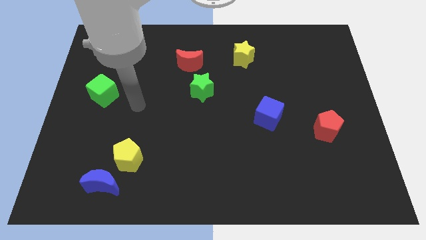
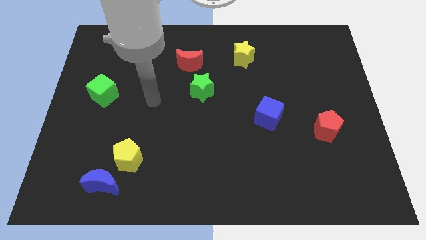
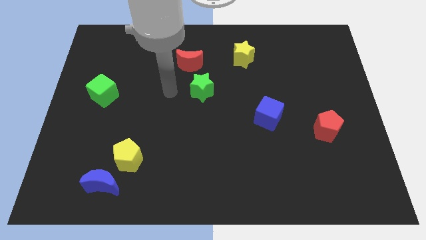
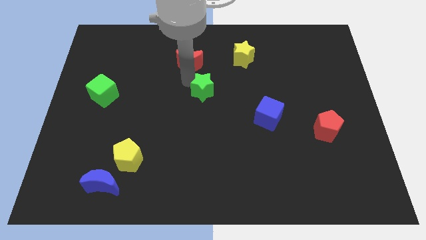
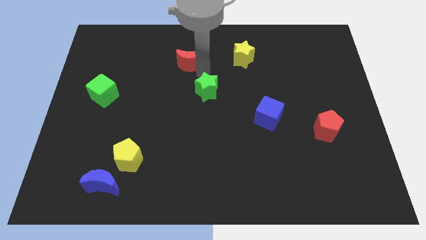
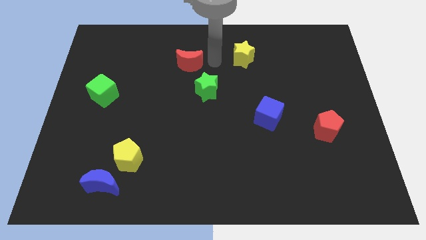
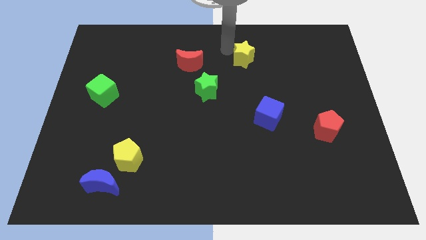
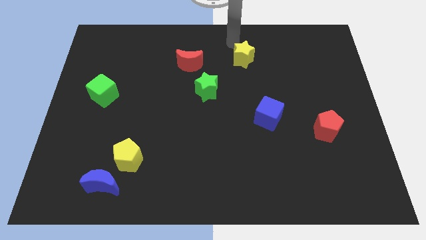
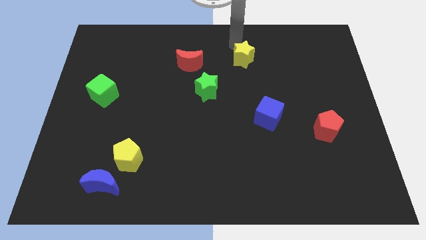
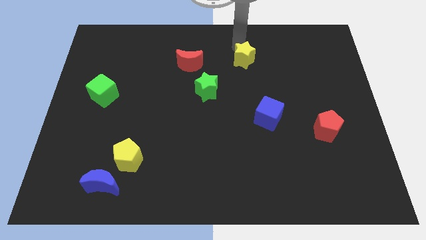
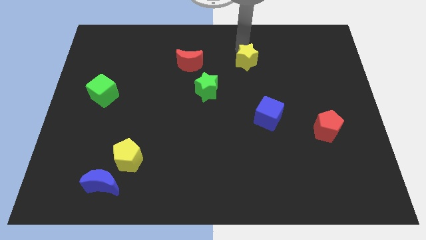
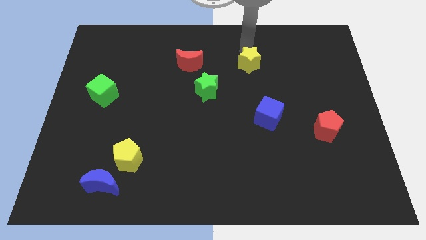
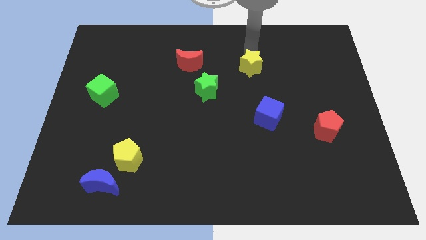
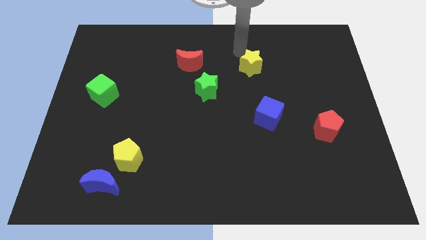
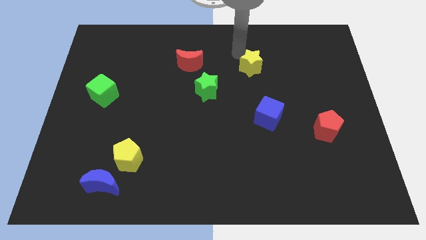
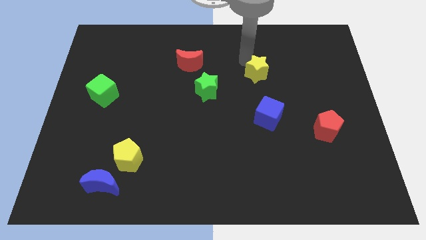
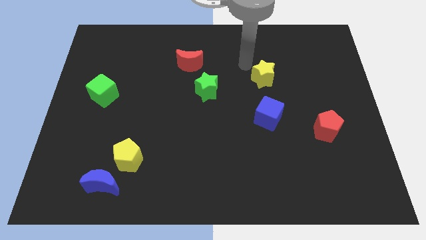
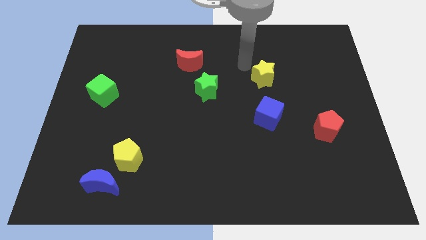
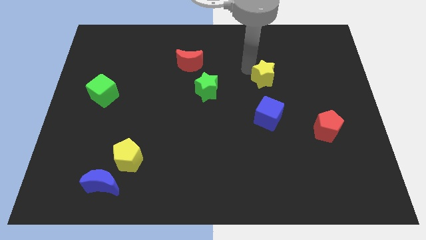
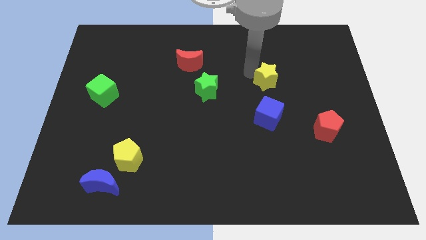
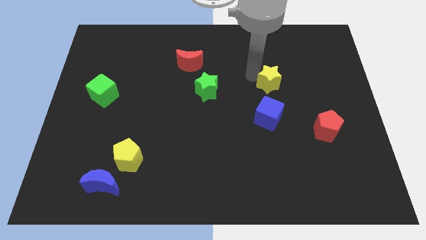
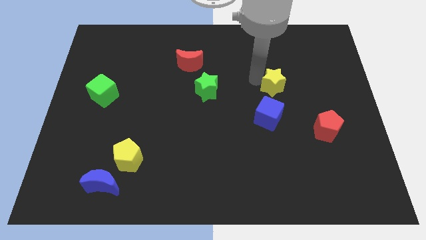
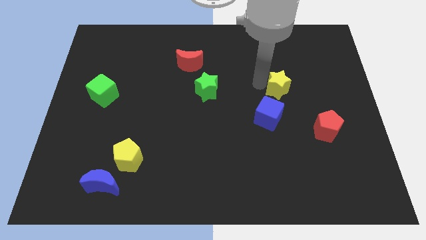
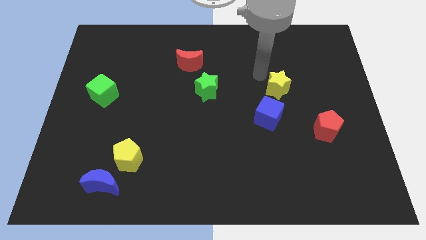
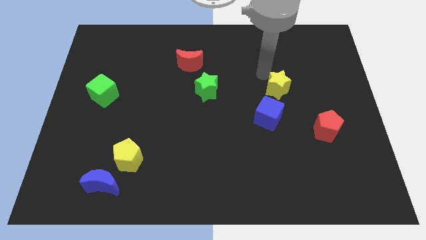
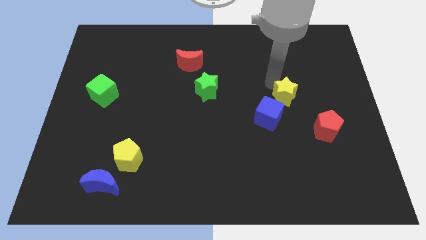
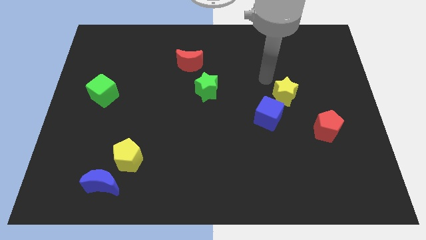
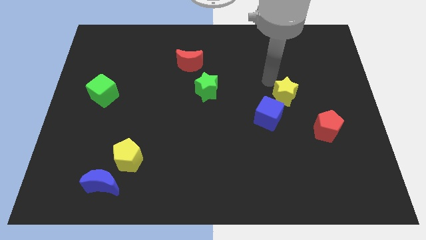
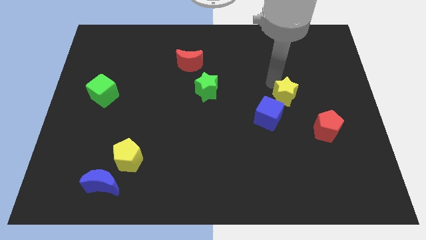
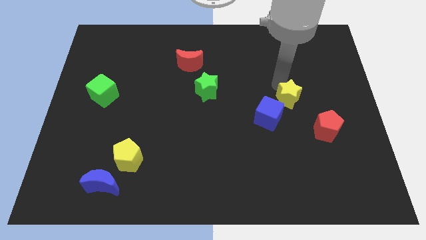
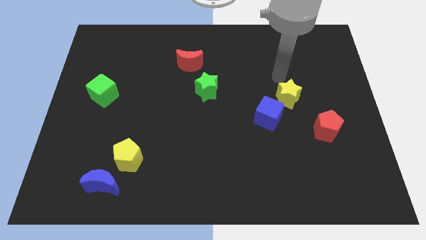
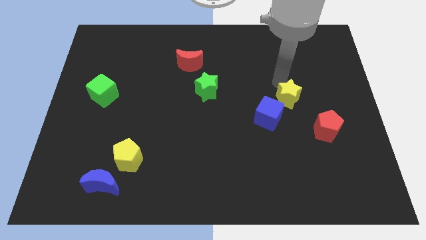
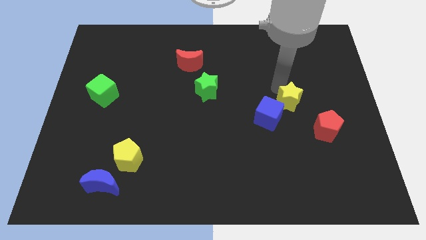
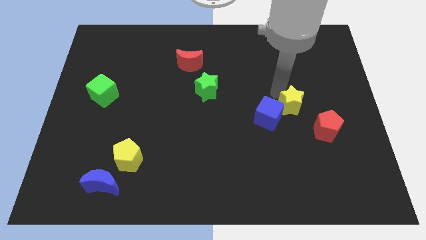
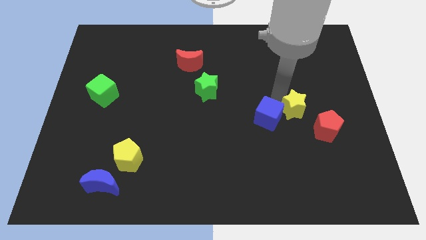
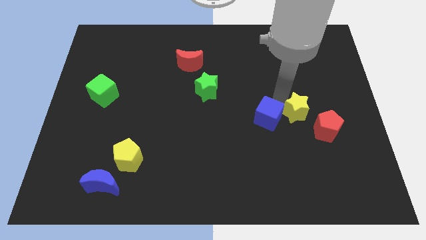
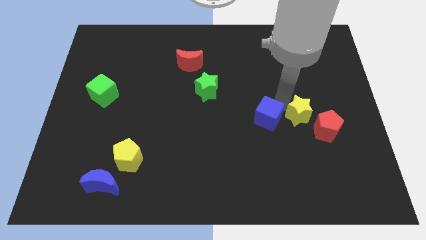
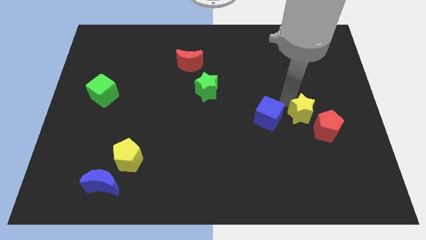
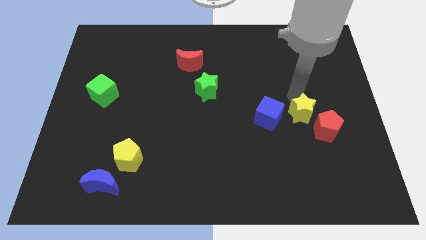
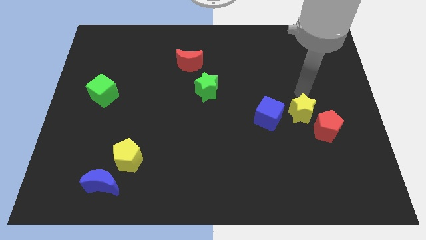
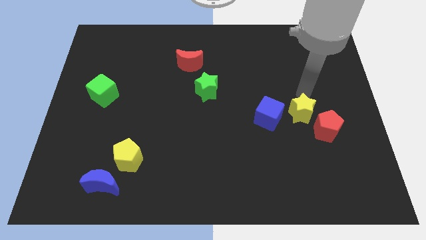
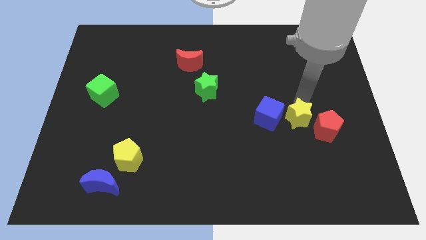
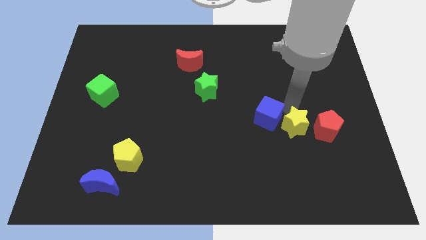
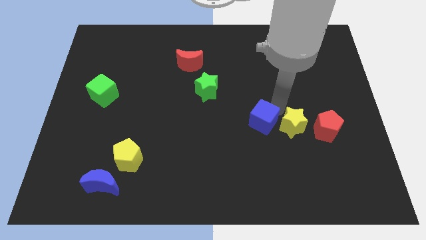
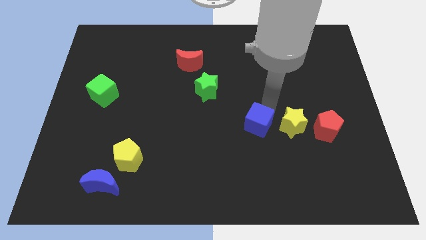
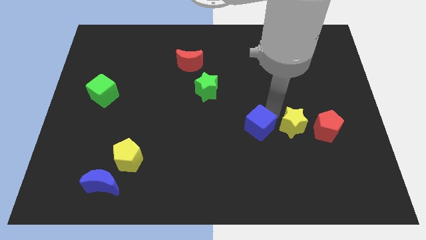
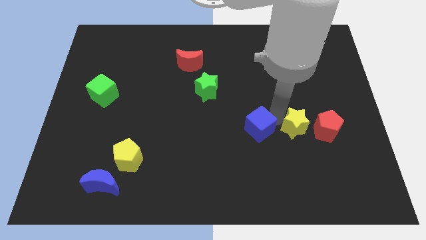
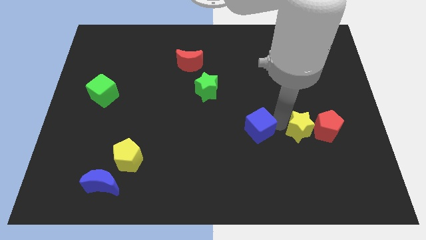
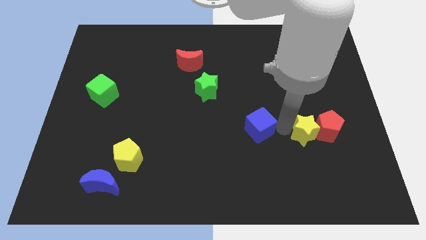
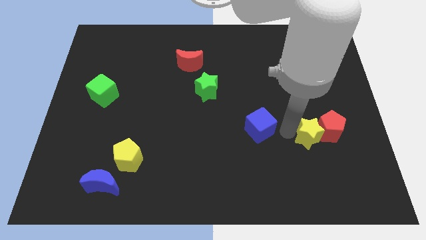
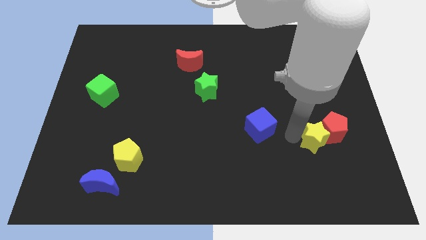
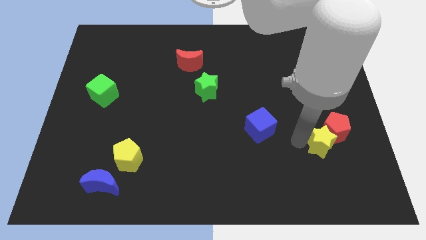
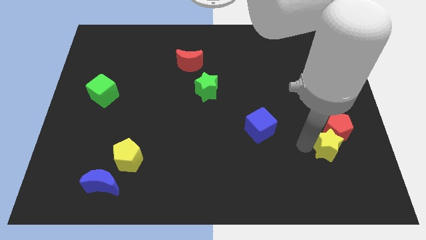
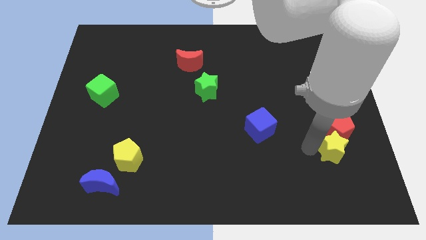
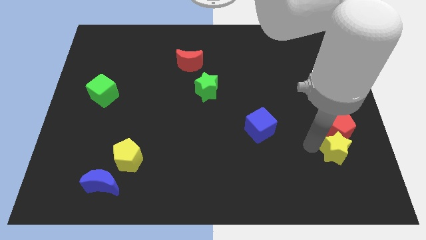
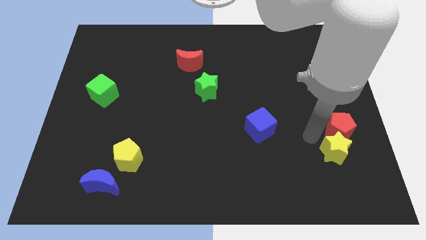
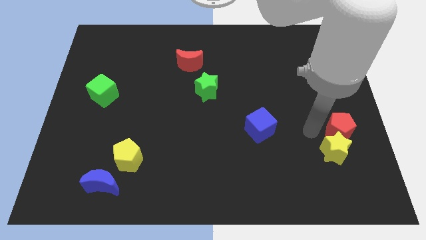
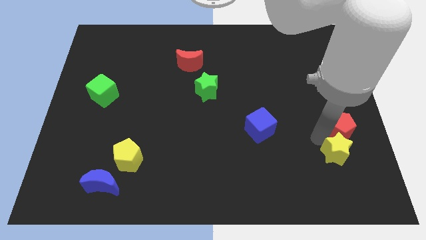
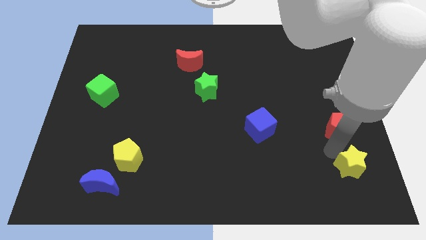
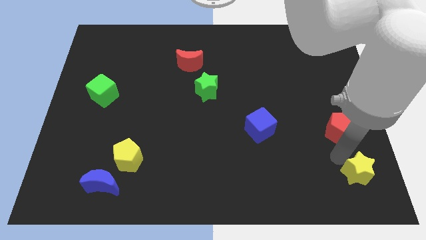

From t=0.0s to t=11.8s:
slide the yellow star to the bottom right of the board

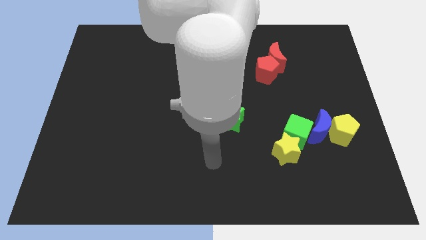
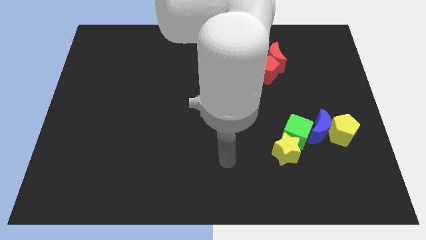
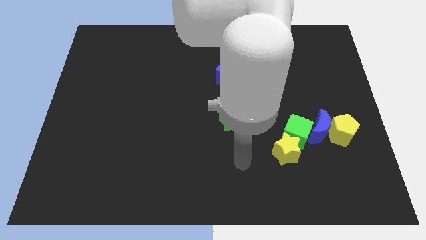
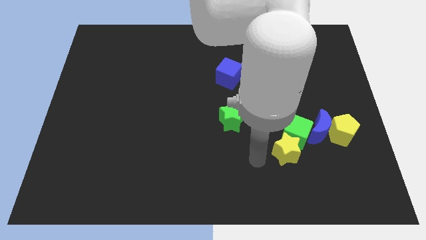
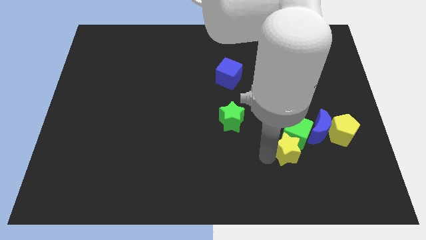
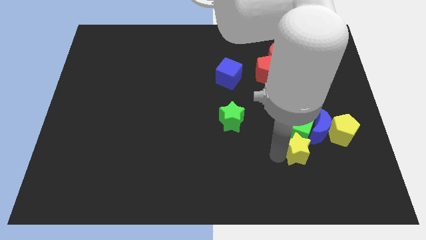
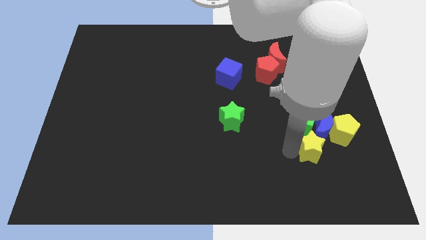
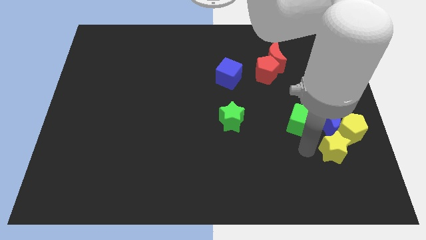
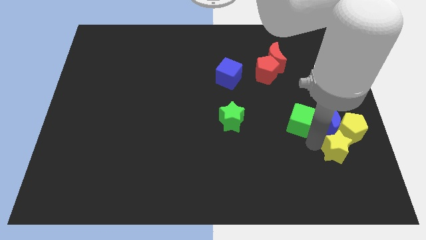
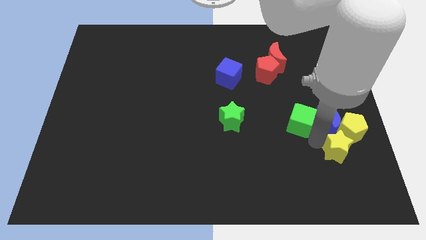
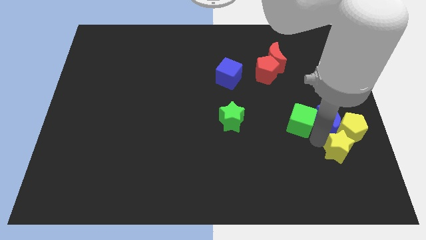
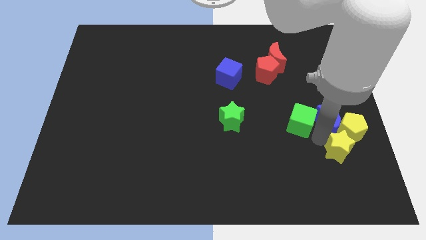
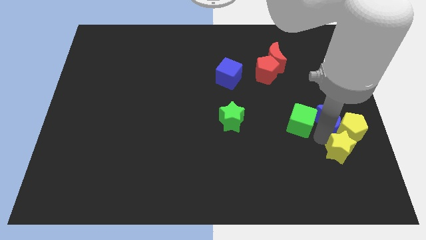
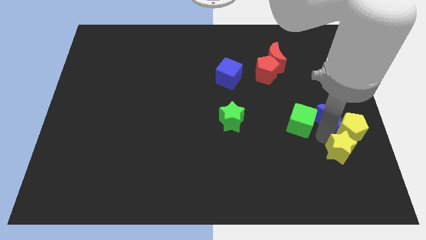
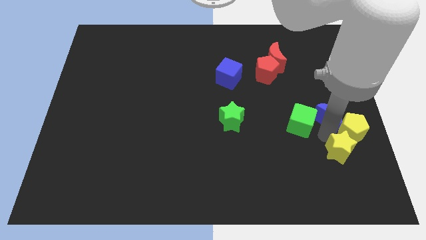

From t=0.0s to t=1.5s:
put the blue moon to the right side of the board
